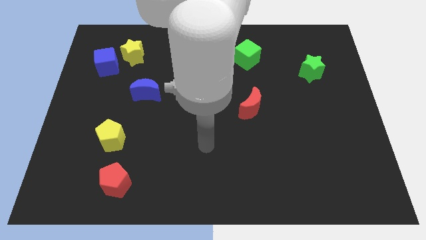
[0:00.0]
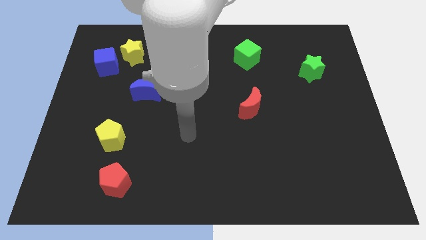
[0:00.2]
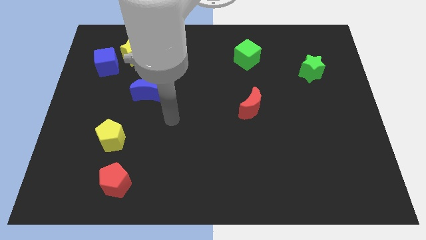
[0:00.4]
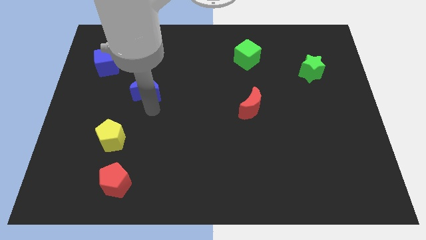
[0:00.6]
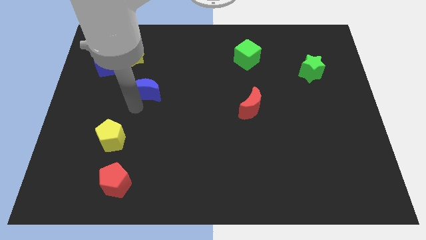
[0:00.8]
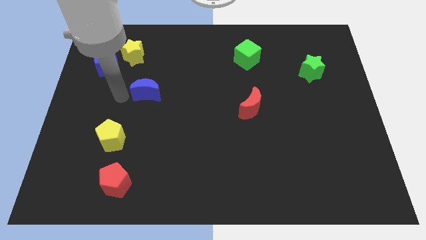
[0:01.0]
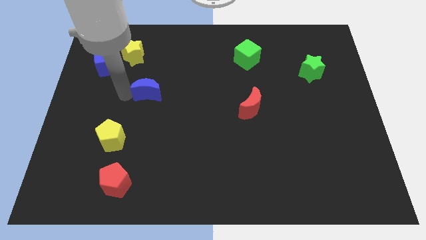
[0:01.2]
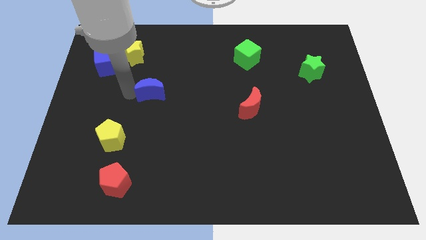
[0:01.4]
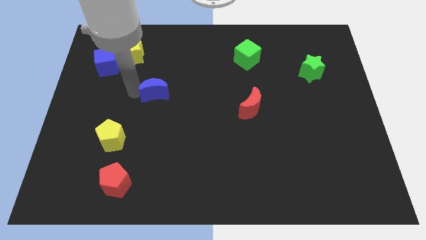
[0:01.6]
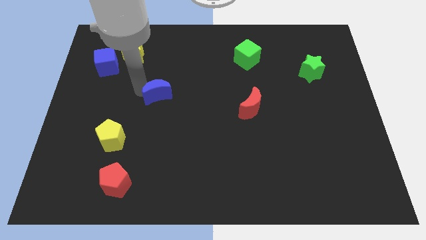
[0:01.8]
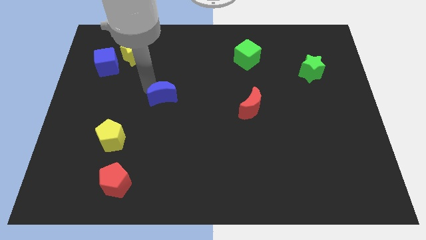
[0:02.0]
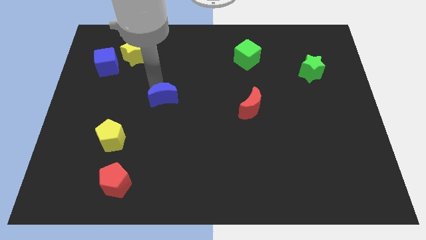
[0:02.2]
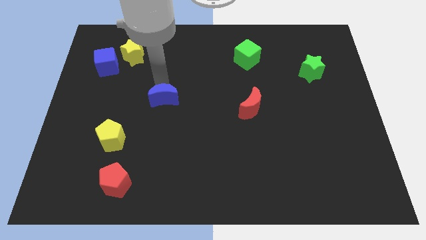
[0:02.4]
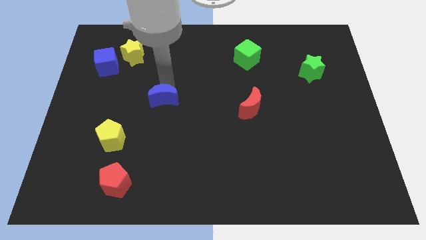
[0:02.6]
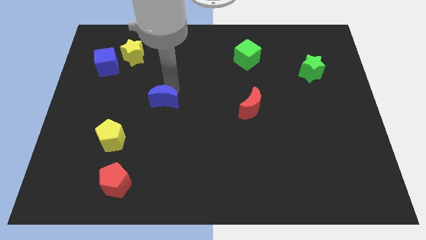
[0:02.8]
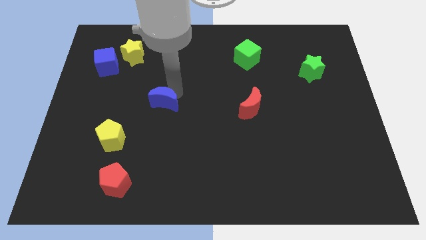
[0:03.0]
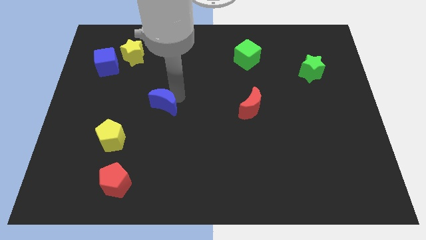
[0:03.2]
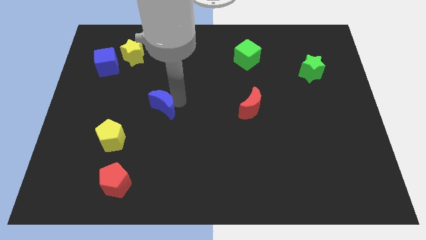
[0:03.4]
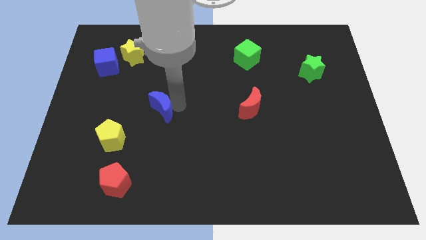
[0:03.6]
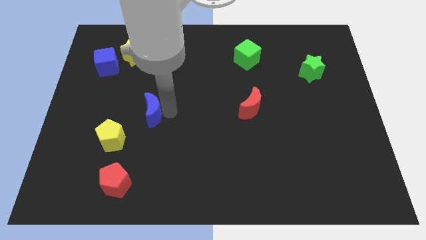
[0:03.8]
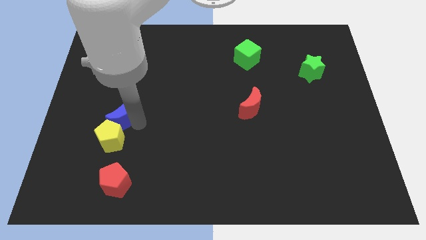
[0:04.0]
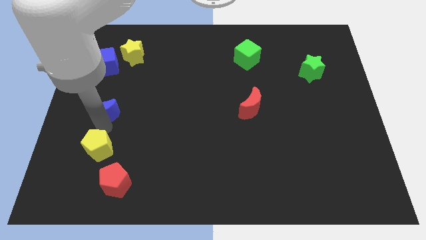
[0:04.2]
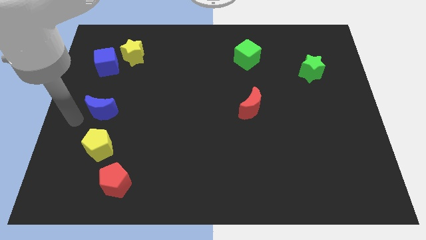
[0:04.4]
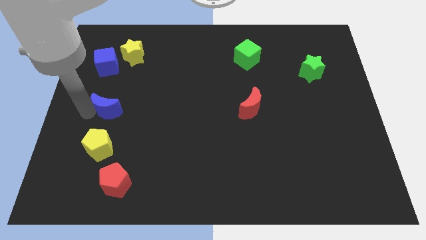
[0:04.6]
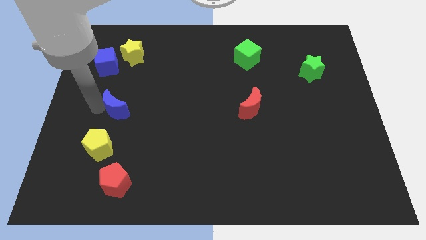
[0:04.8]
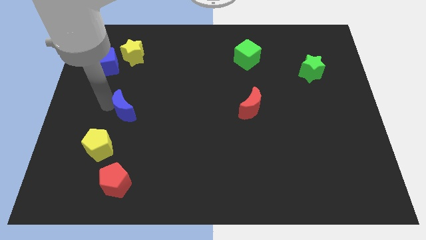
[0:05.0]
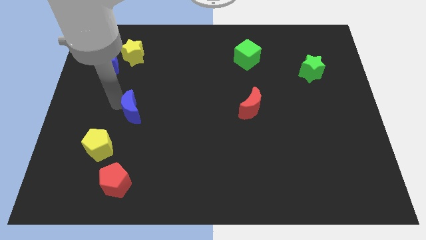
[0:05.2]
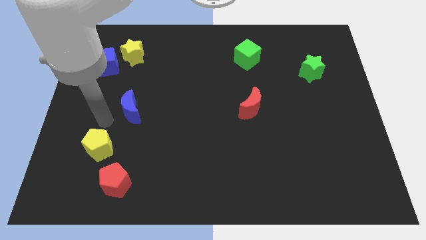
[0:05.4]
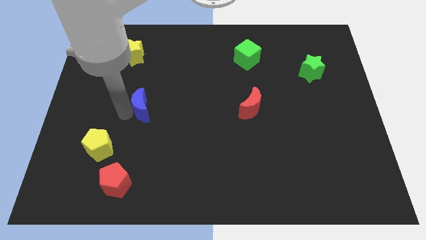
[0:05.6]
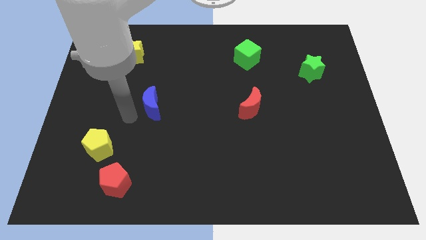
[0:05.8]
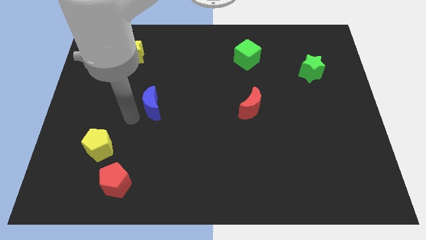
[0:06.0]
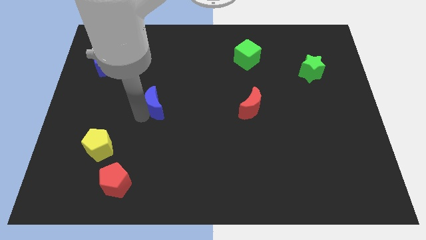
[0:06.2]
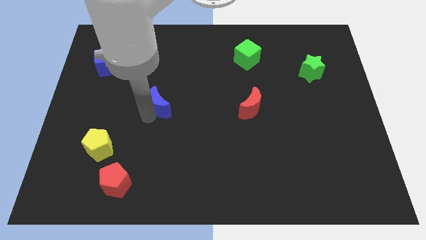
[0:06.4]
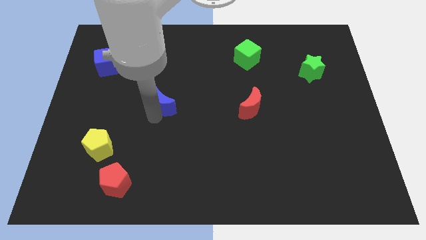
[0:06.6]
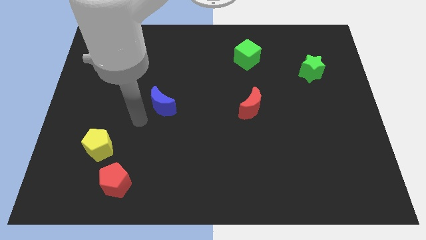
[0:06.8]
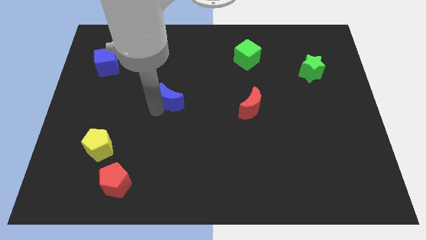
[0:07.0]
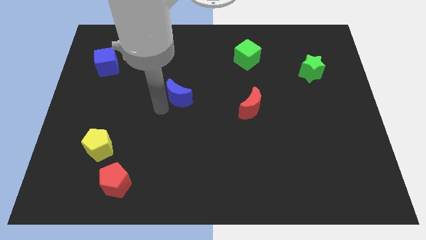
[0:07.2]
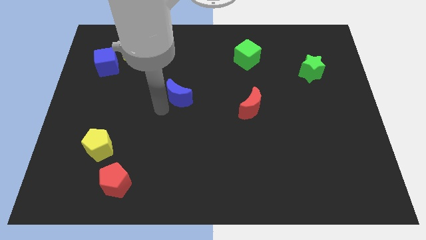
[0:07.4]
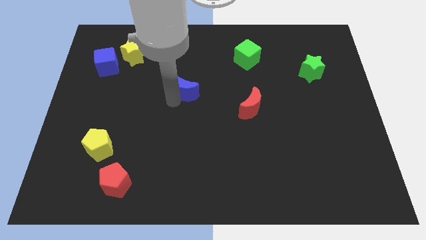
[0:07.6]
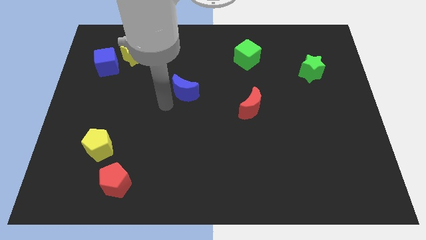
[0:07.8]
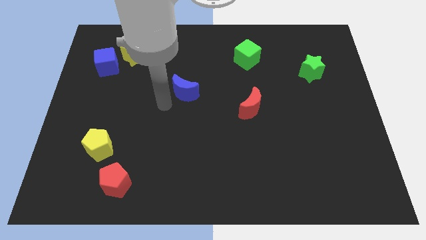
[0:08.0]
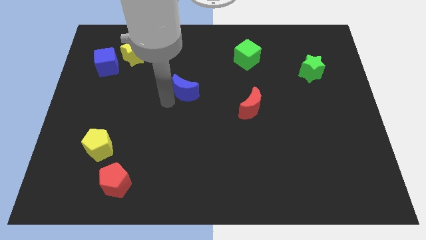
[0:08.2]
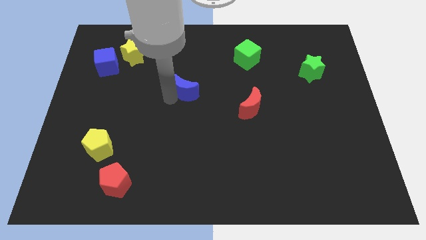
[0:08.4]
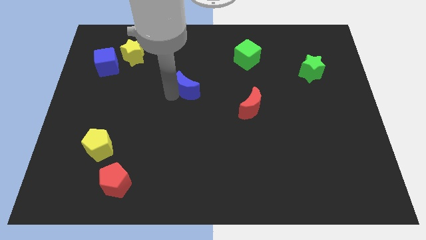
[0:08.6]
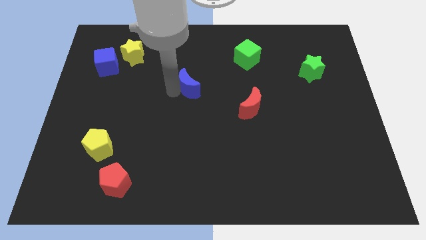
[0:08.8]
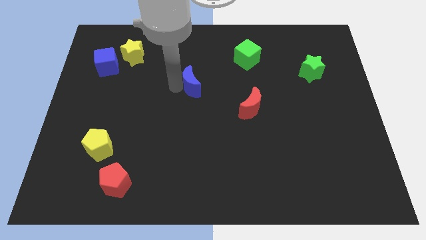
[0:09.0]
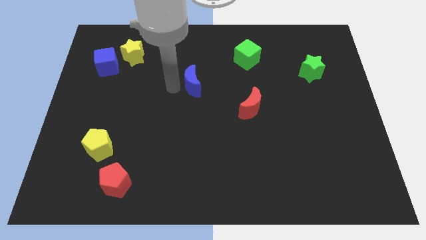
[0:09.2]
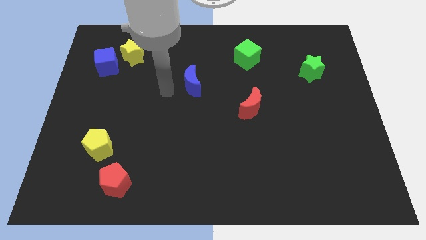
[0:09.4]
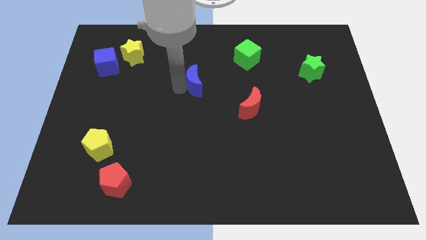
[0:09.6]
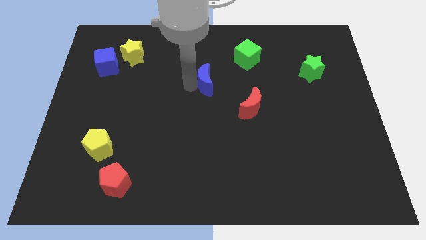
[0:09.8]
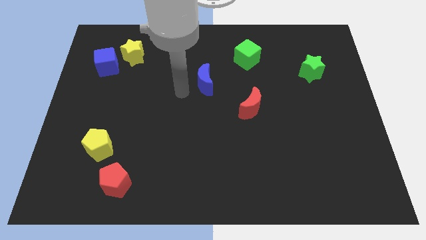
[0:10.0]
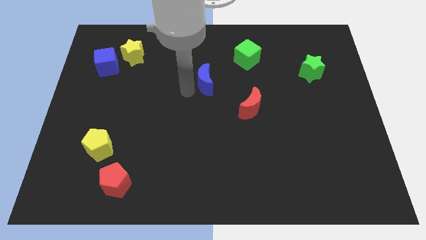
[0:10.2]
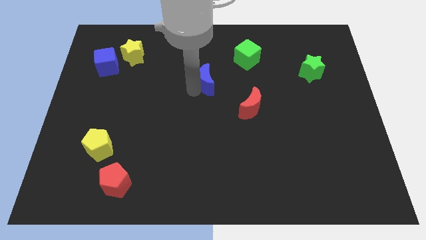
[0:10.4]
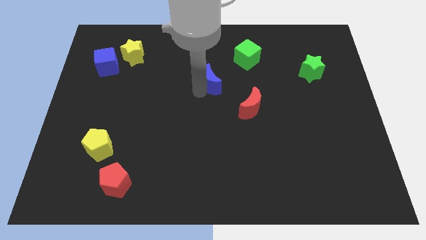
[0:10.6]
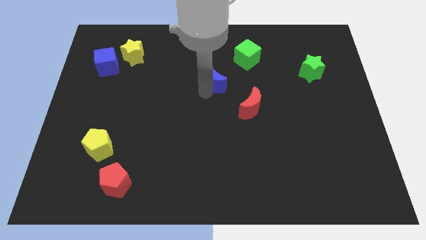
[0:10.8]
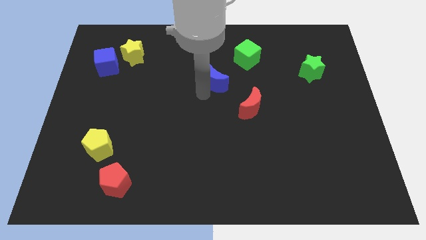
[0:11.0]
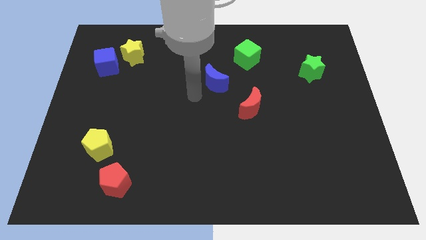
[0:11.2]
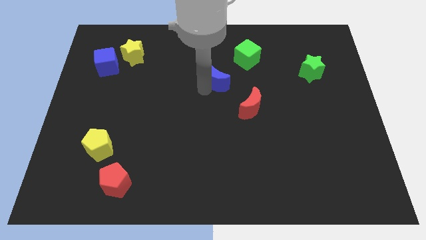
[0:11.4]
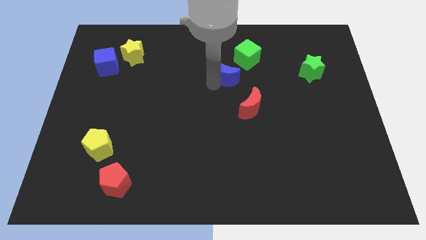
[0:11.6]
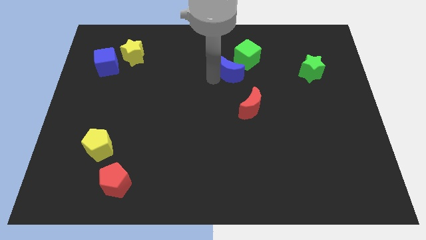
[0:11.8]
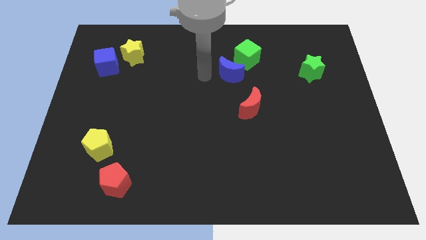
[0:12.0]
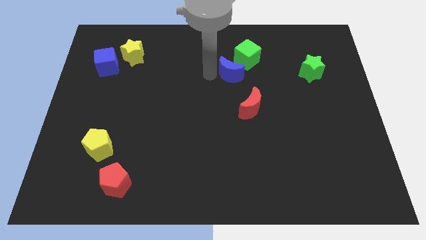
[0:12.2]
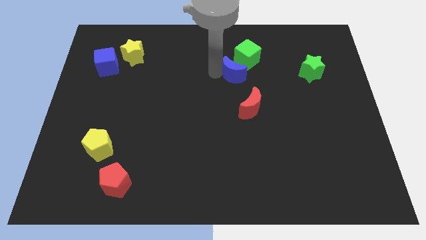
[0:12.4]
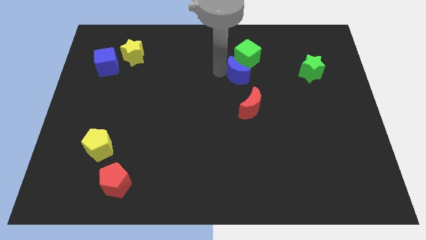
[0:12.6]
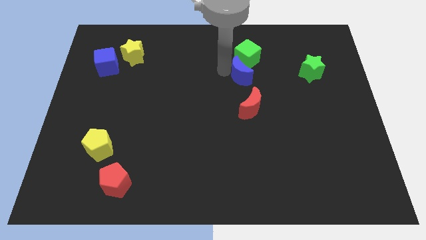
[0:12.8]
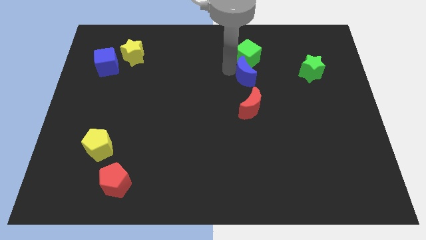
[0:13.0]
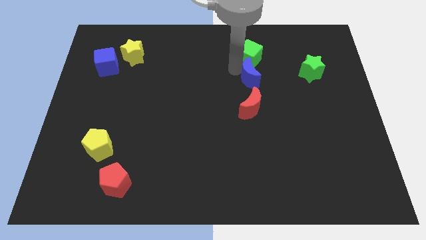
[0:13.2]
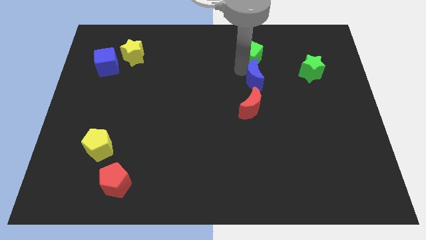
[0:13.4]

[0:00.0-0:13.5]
put the blue moon to the bottom right of the green cube
